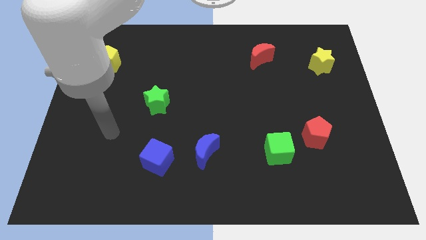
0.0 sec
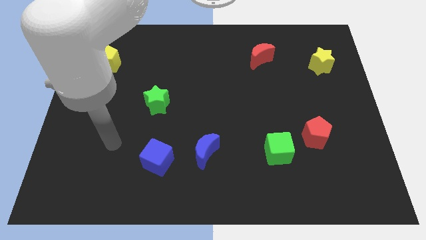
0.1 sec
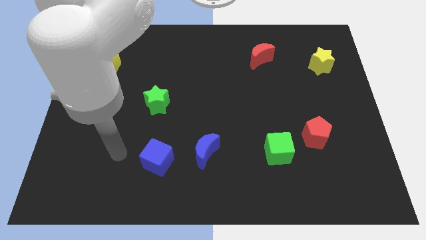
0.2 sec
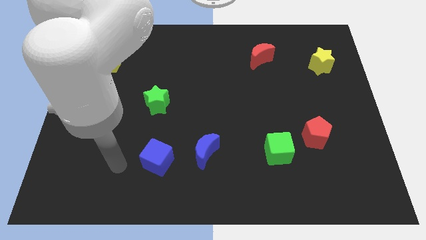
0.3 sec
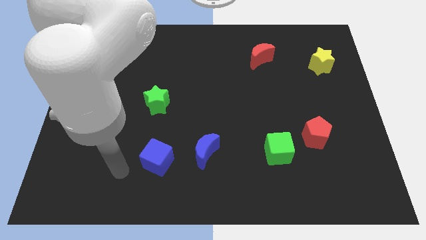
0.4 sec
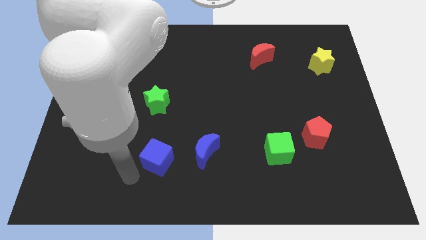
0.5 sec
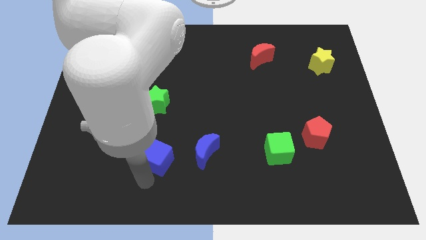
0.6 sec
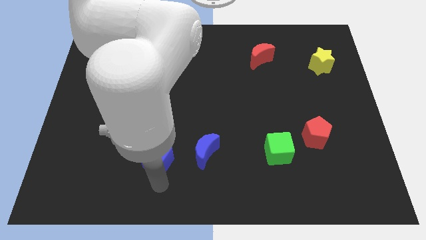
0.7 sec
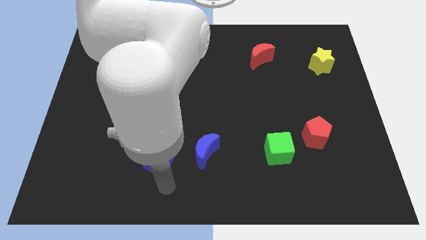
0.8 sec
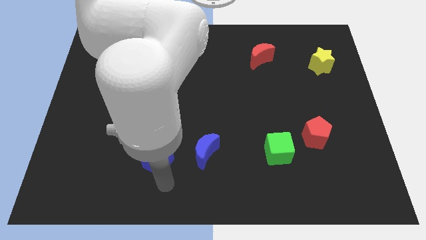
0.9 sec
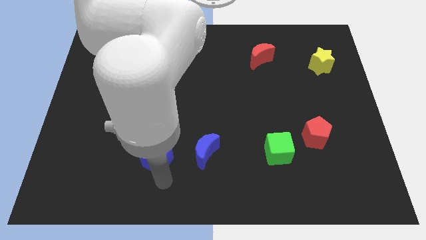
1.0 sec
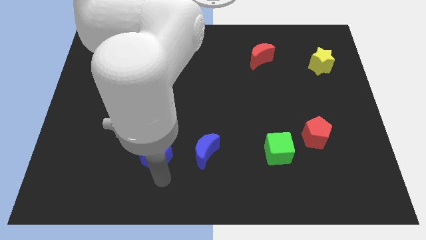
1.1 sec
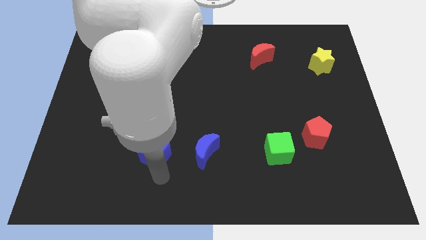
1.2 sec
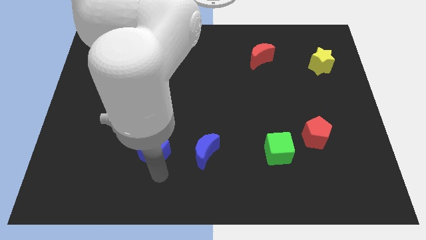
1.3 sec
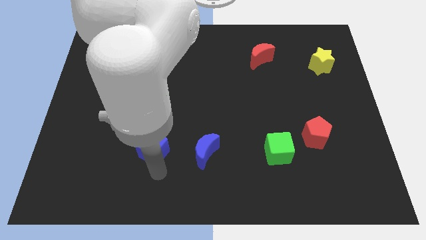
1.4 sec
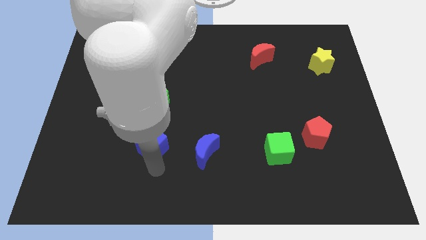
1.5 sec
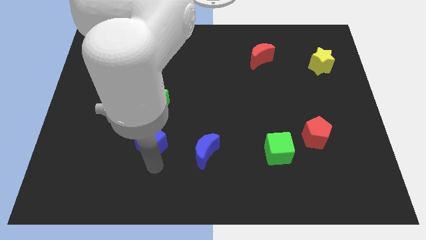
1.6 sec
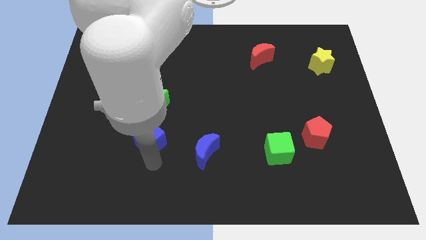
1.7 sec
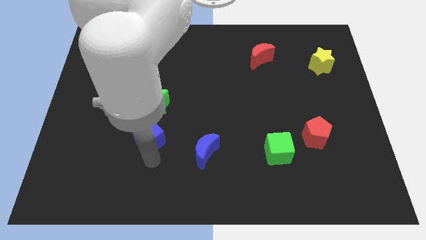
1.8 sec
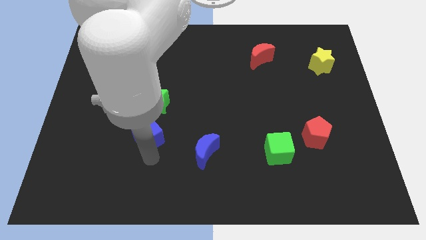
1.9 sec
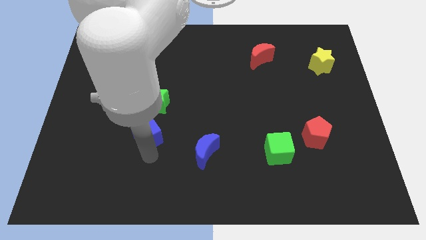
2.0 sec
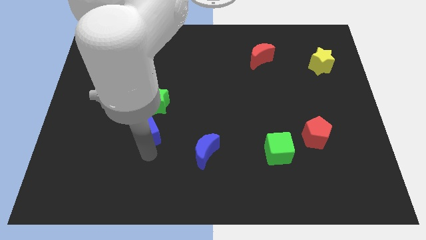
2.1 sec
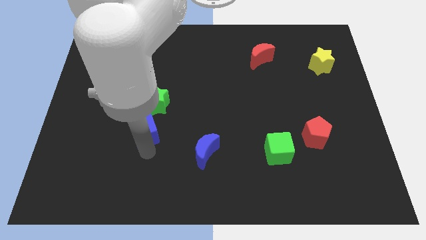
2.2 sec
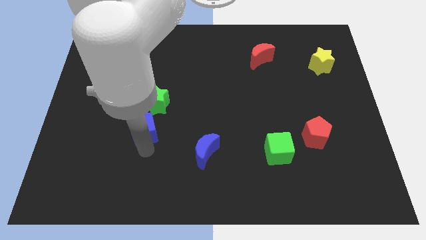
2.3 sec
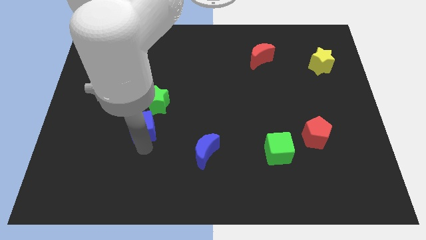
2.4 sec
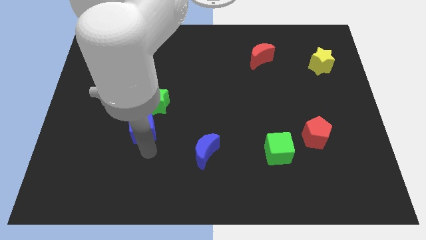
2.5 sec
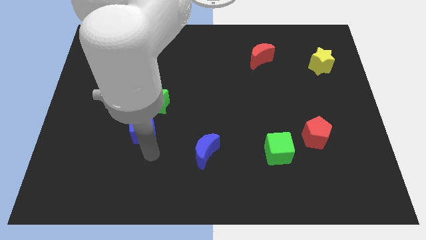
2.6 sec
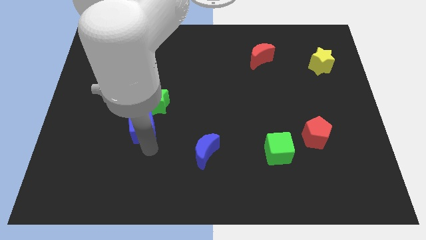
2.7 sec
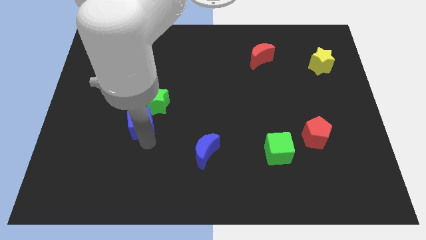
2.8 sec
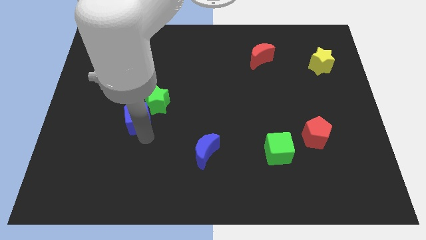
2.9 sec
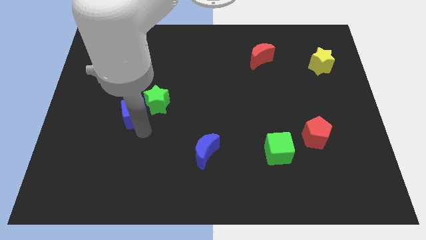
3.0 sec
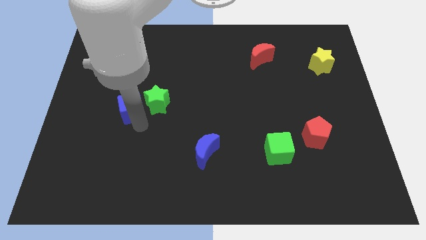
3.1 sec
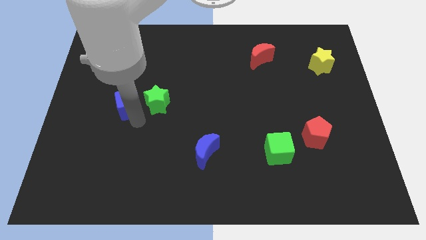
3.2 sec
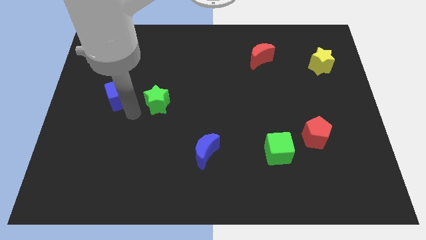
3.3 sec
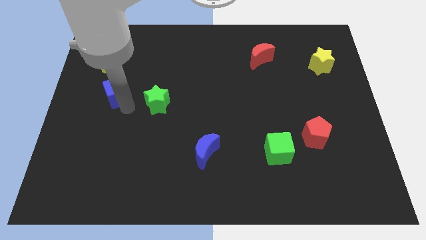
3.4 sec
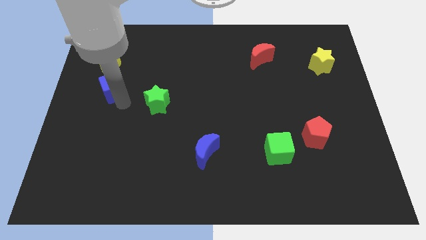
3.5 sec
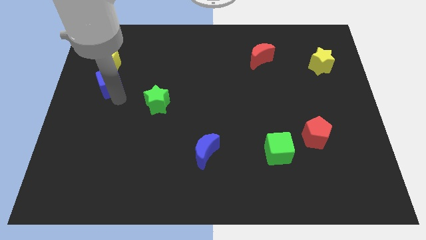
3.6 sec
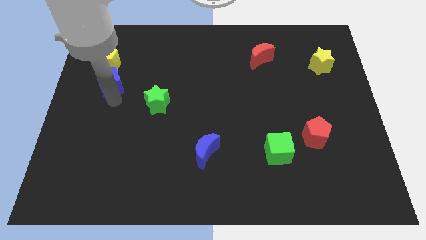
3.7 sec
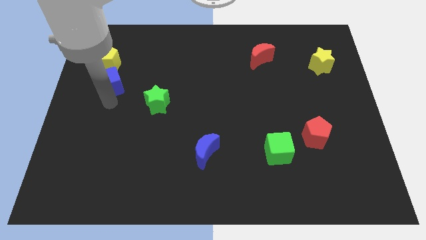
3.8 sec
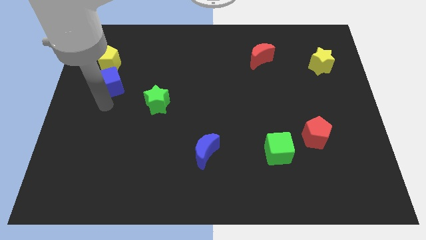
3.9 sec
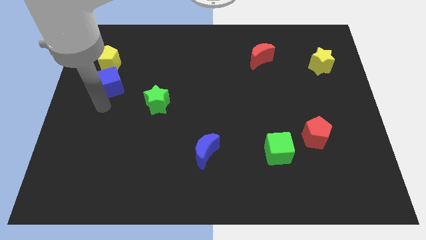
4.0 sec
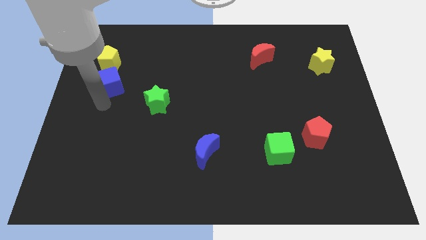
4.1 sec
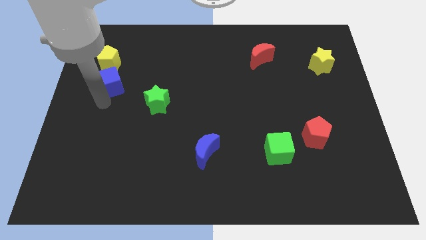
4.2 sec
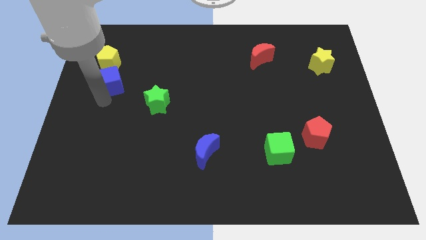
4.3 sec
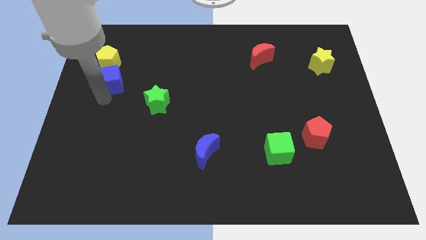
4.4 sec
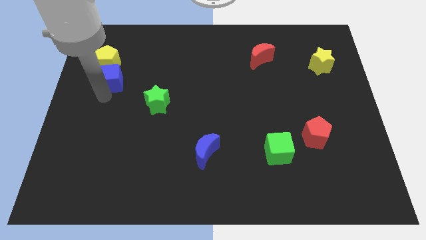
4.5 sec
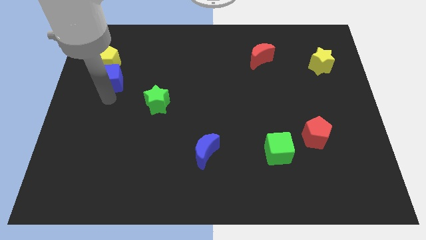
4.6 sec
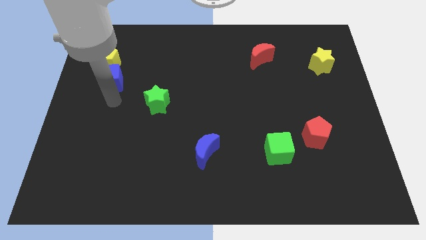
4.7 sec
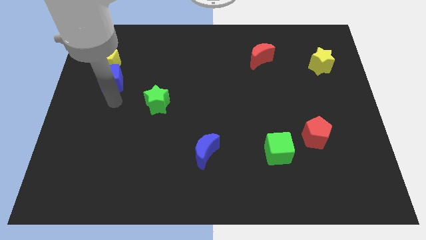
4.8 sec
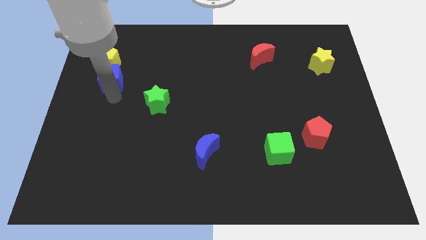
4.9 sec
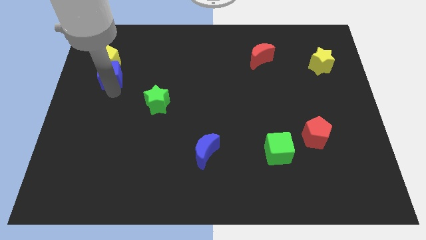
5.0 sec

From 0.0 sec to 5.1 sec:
move the blue cube next to the yellow pentagon

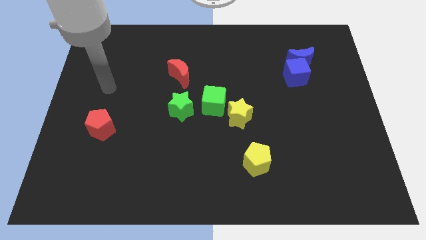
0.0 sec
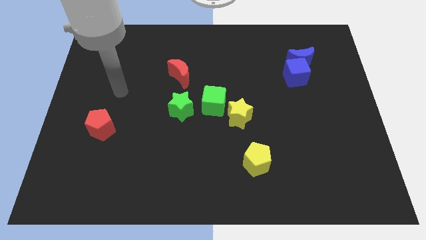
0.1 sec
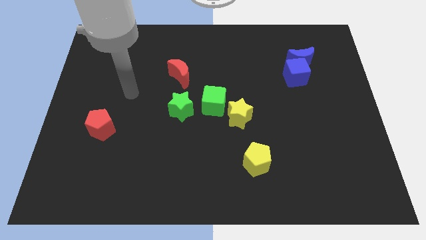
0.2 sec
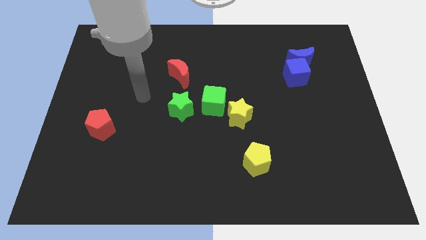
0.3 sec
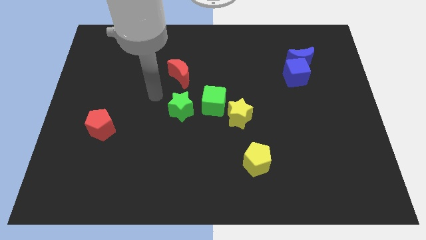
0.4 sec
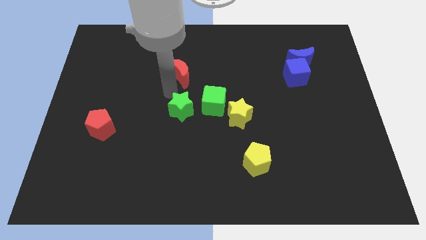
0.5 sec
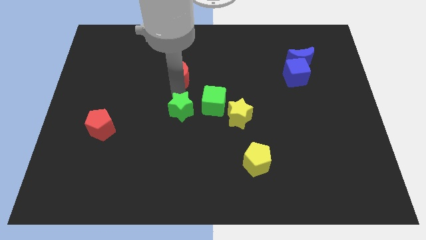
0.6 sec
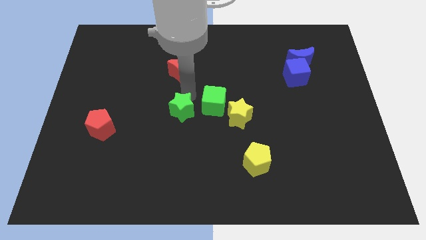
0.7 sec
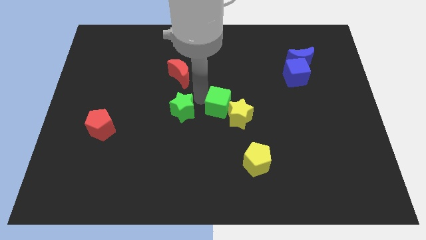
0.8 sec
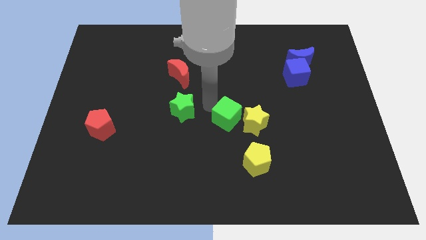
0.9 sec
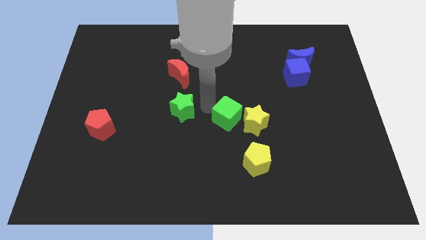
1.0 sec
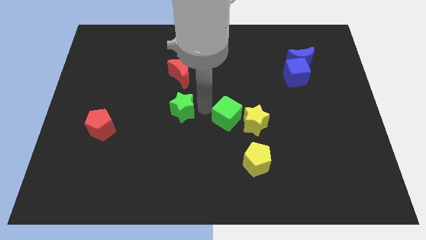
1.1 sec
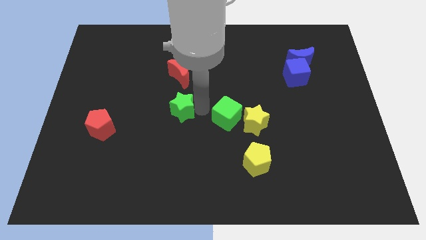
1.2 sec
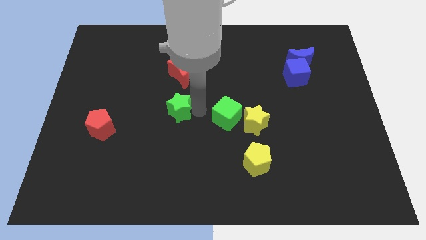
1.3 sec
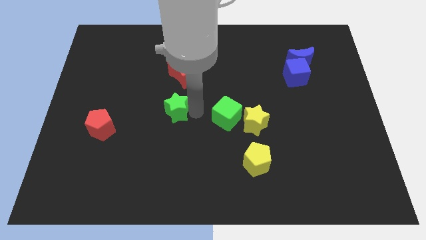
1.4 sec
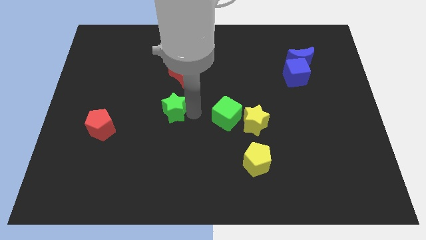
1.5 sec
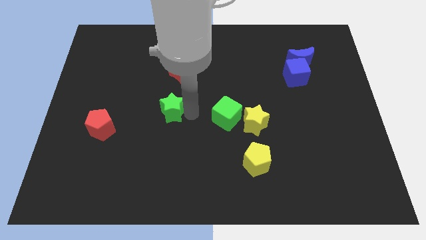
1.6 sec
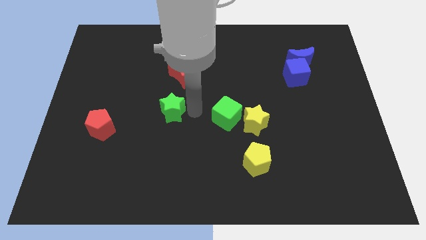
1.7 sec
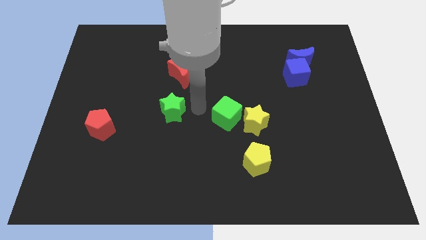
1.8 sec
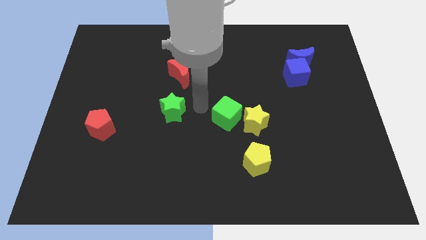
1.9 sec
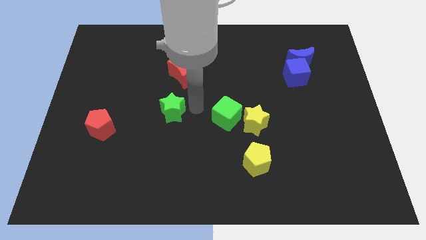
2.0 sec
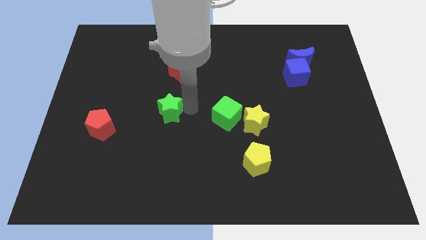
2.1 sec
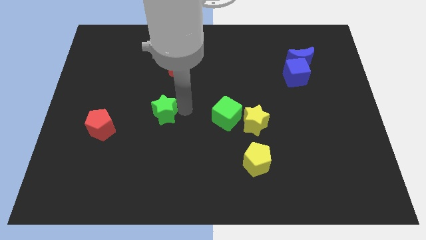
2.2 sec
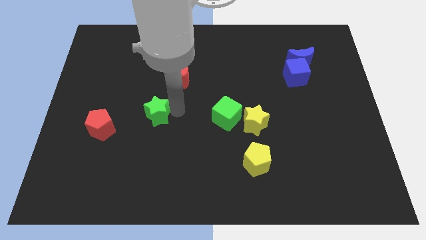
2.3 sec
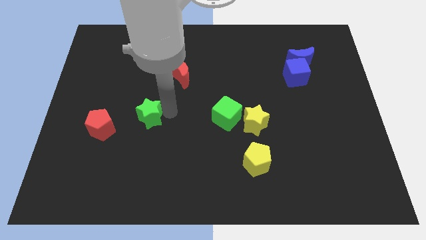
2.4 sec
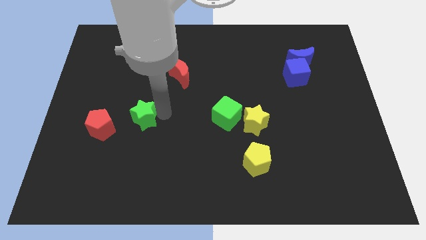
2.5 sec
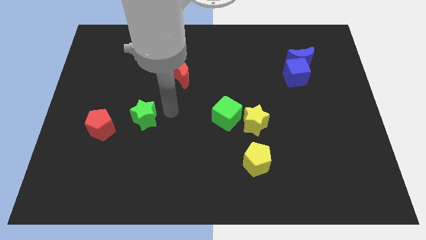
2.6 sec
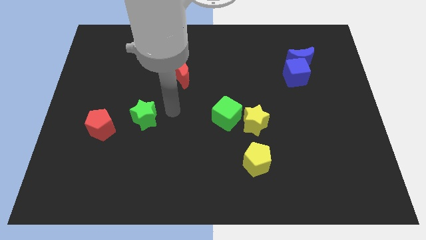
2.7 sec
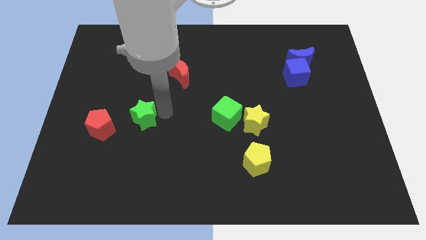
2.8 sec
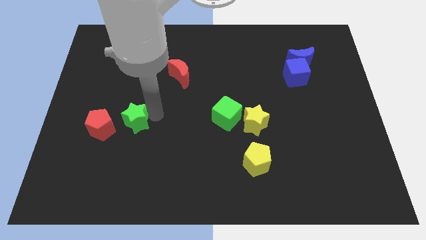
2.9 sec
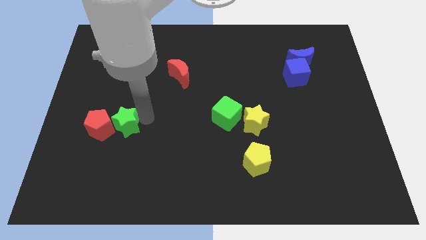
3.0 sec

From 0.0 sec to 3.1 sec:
put the green star to the red pentagon
